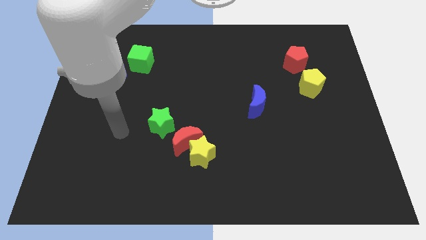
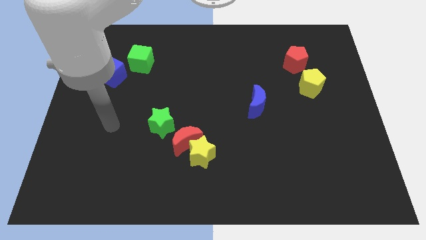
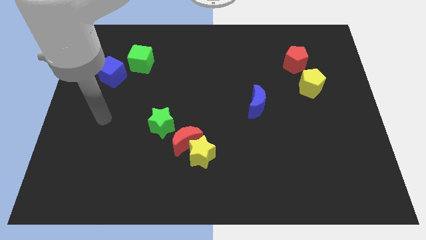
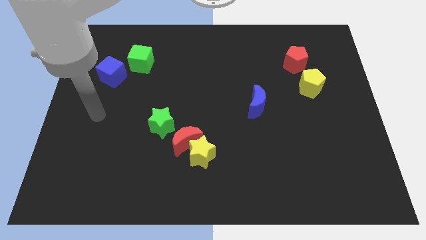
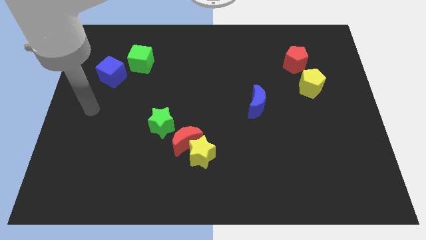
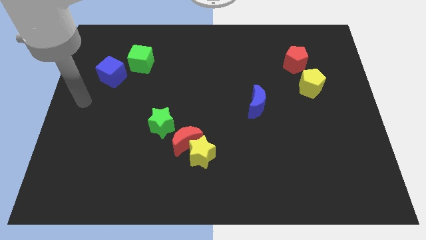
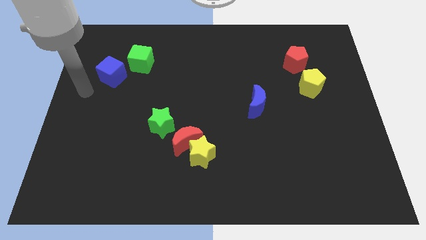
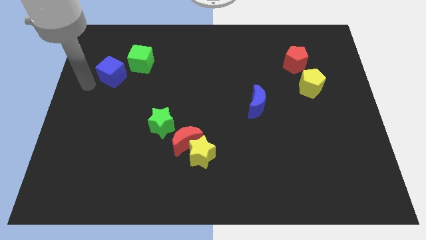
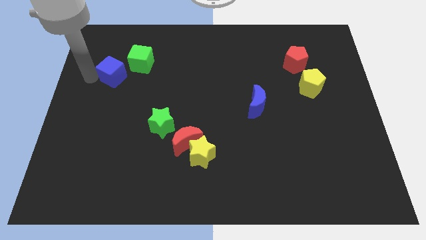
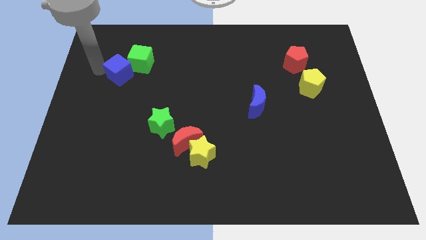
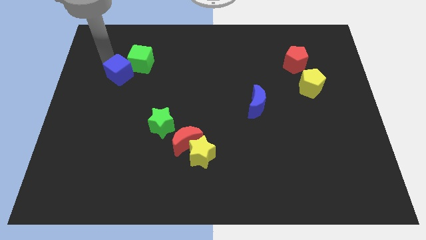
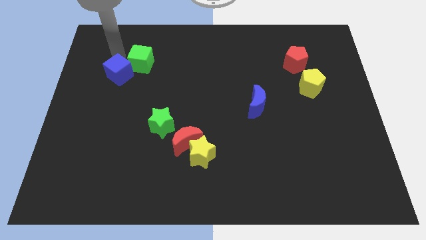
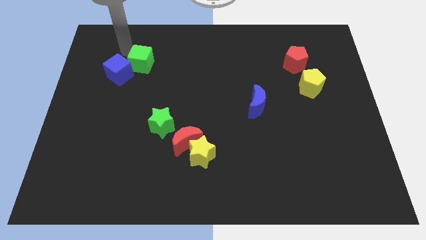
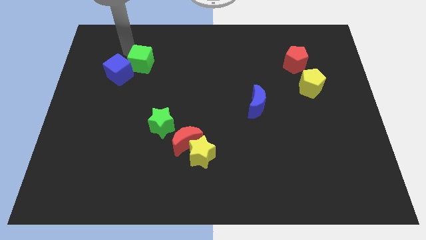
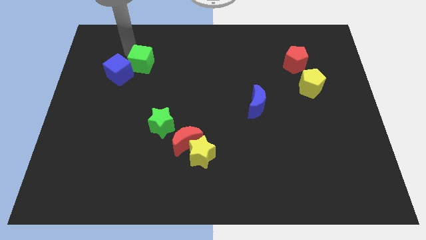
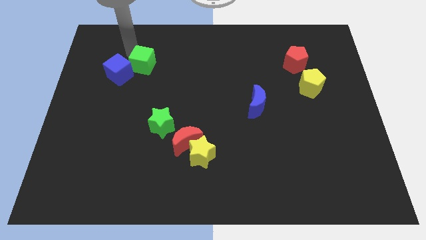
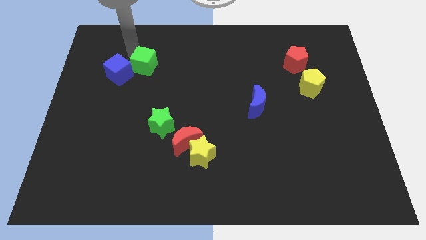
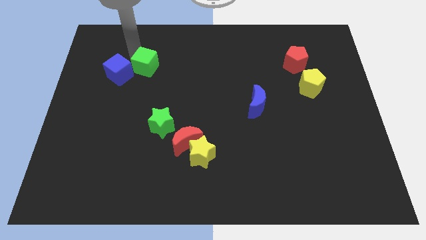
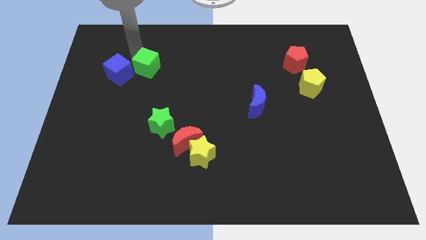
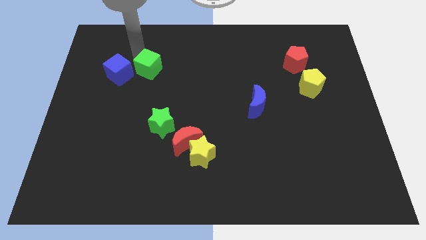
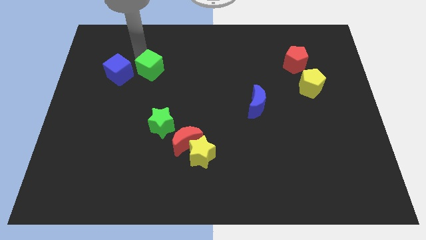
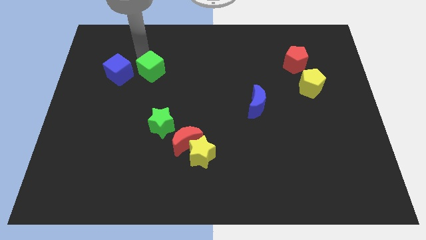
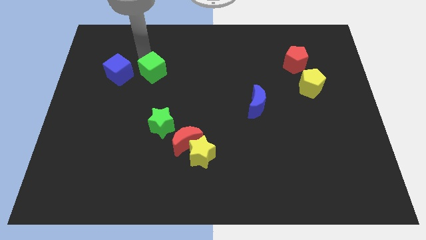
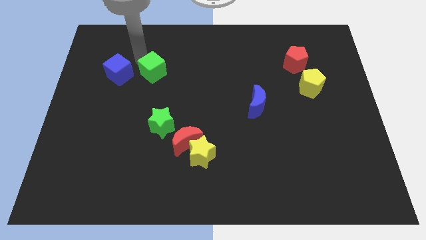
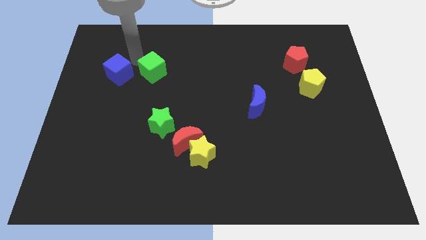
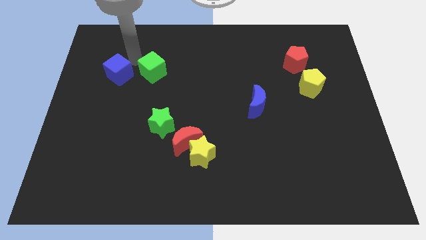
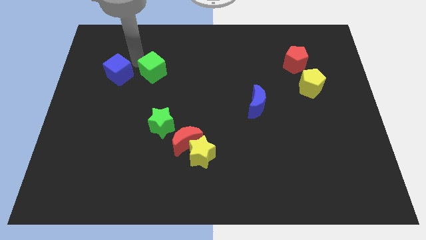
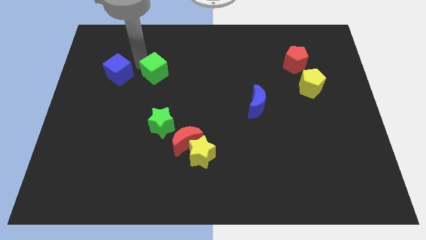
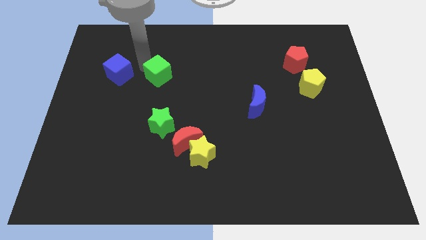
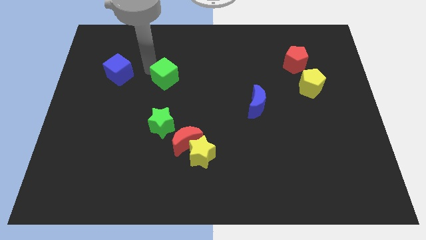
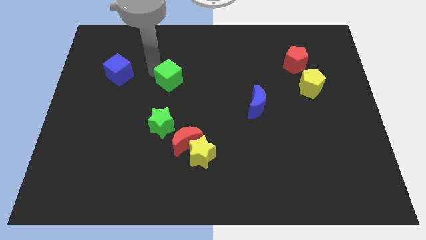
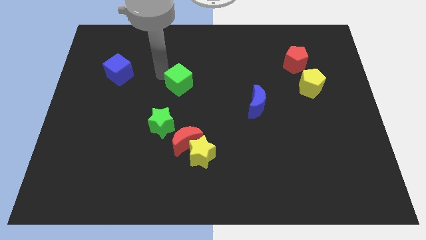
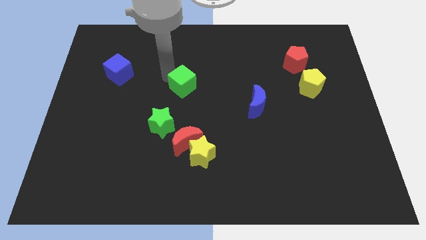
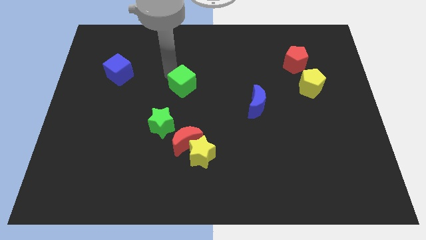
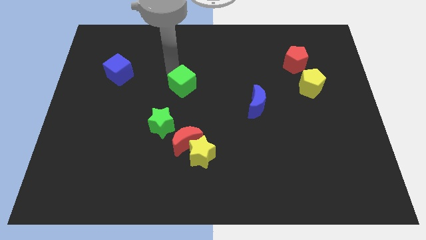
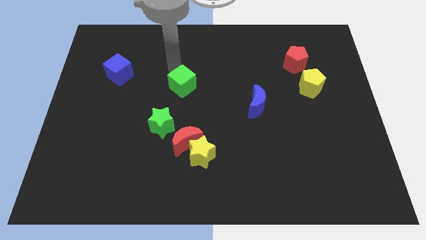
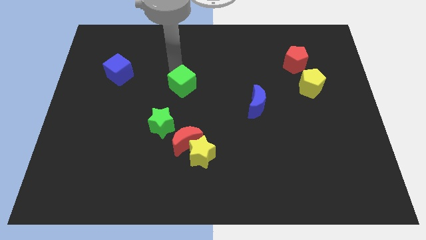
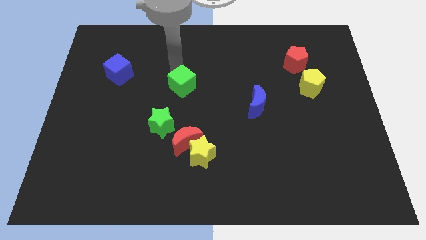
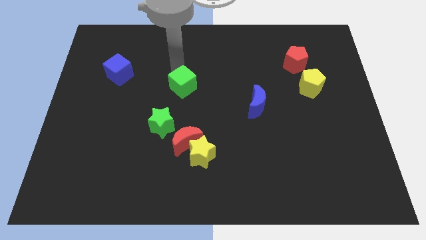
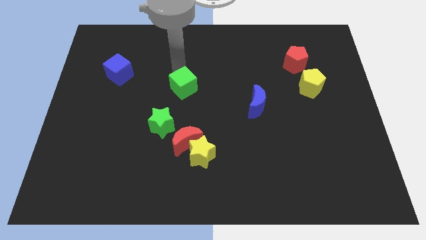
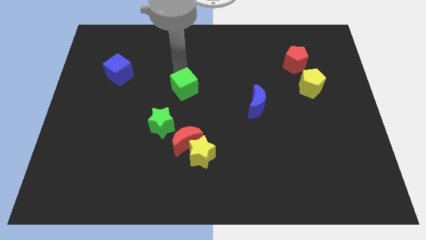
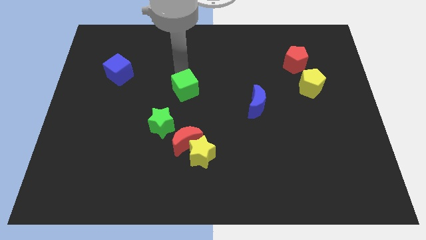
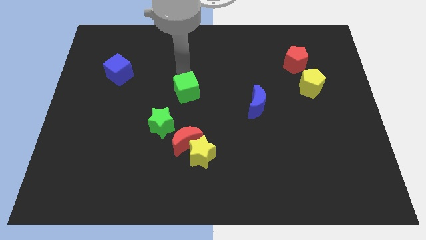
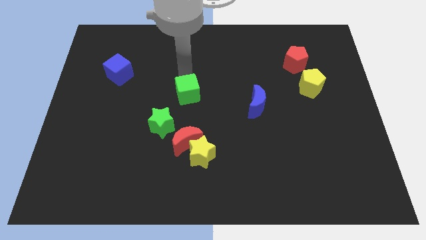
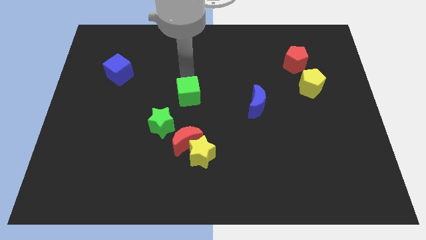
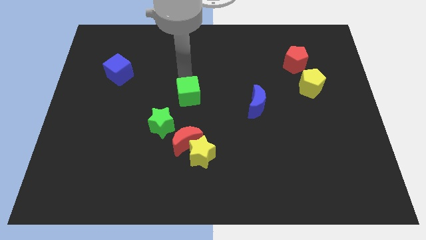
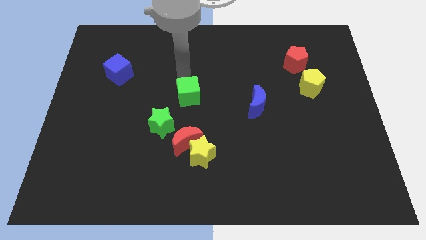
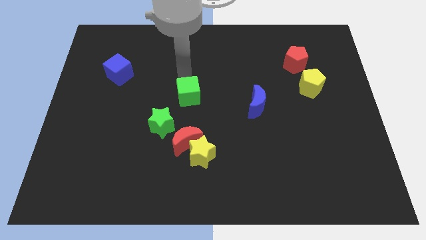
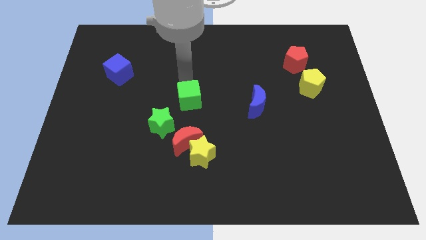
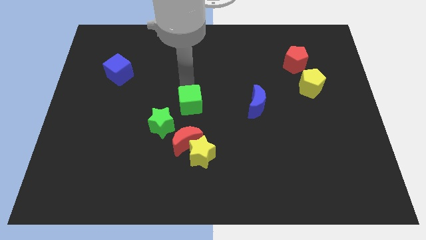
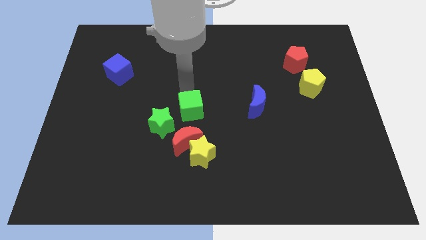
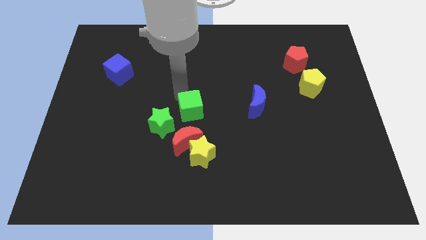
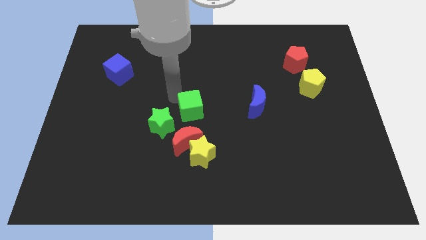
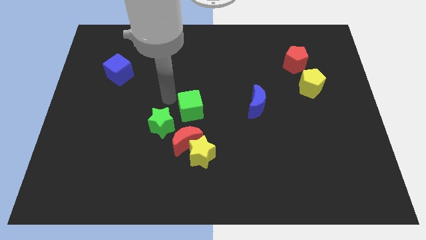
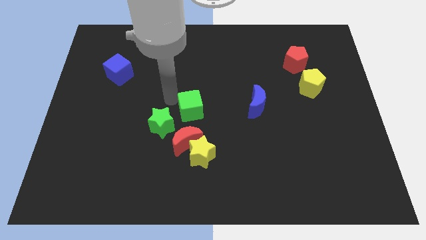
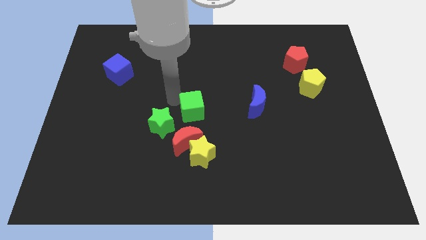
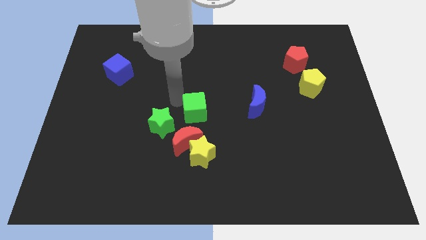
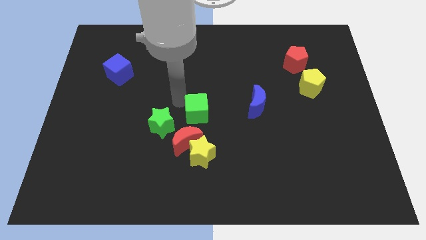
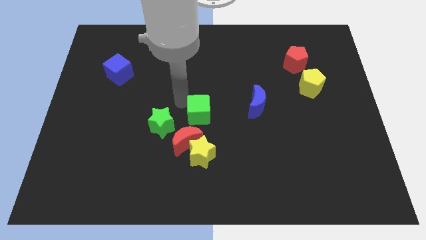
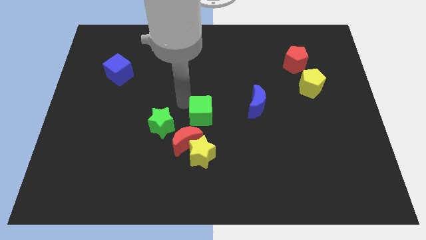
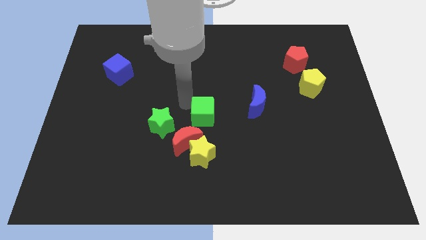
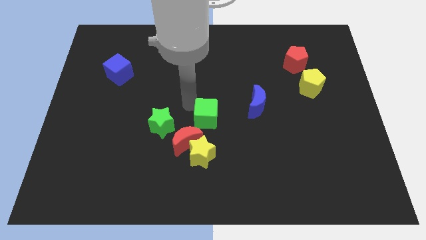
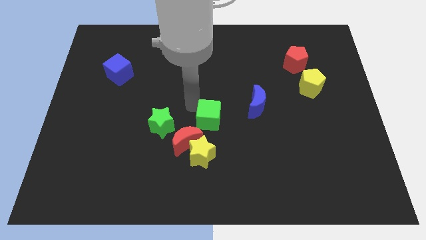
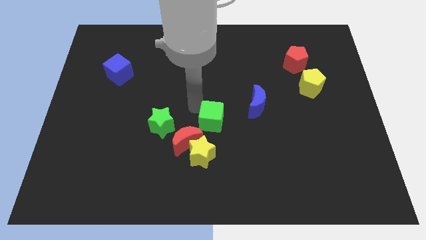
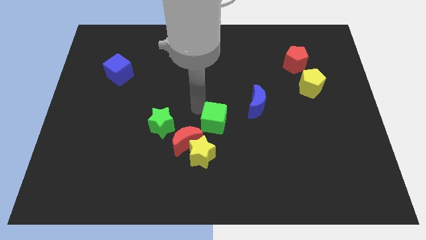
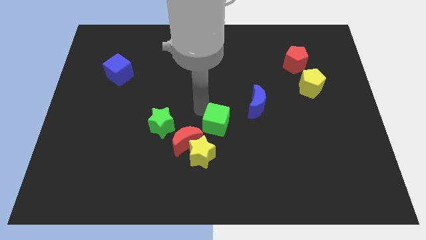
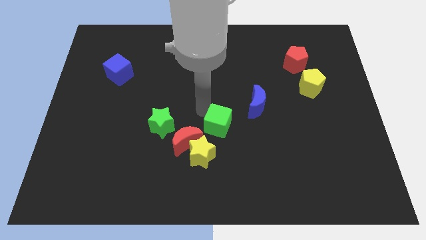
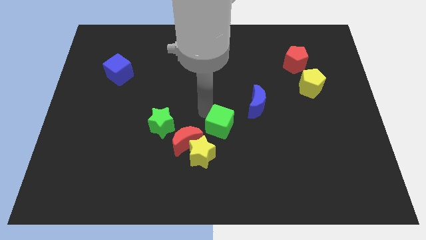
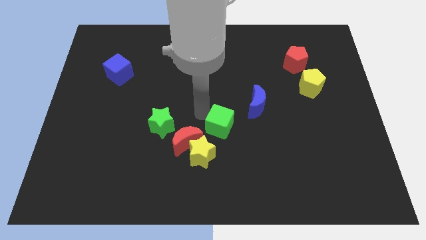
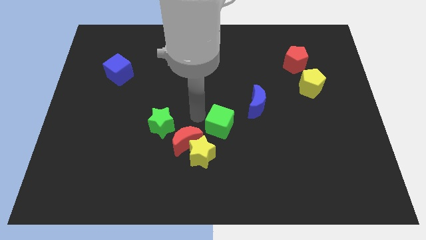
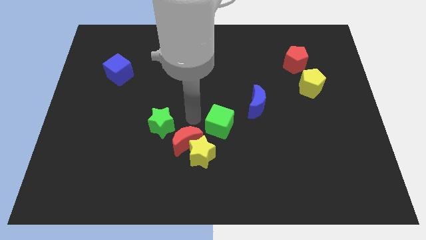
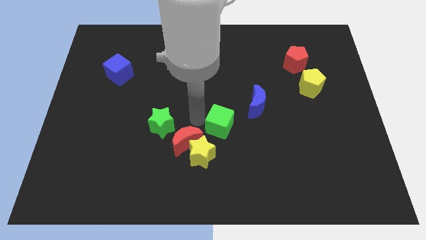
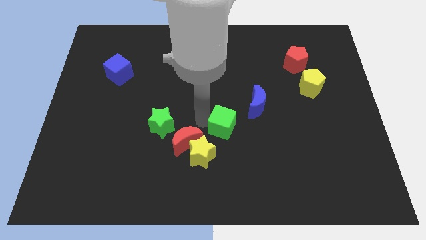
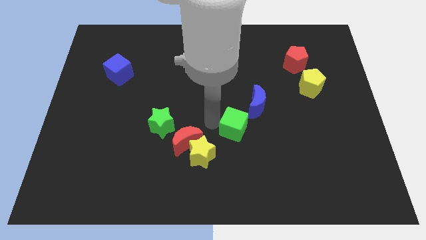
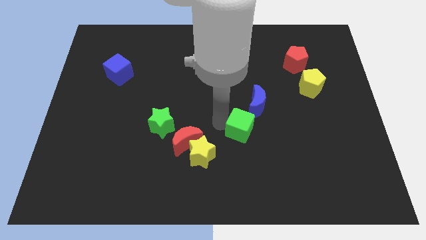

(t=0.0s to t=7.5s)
slide the green cube below the blue moon

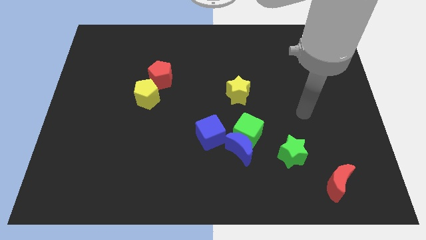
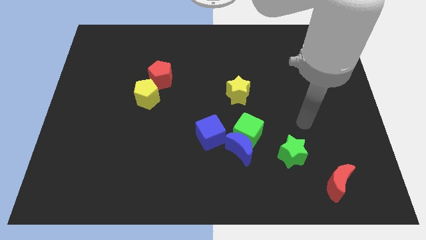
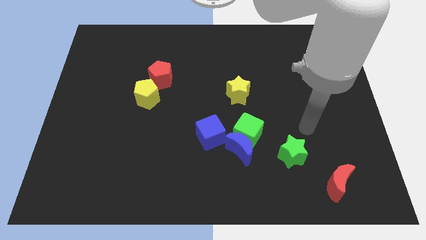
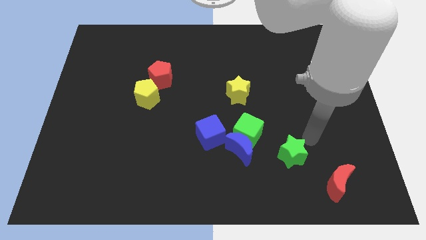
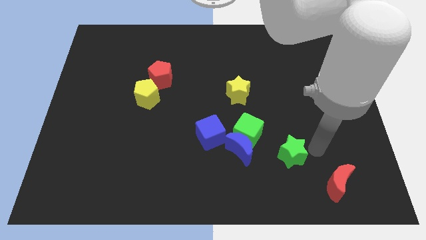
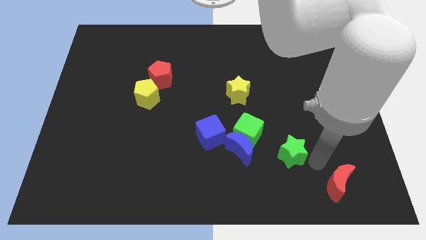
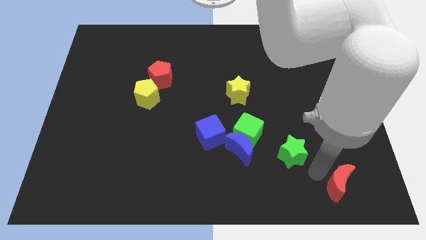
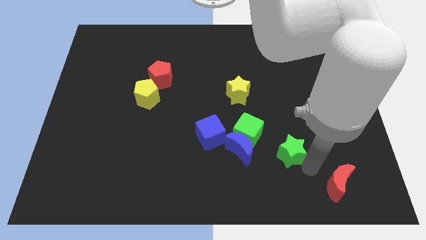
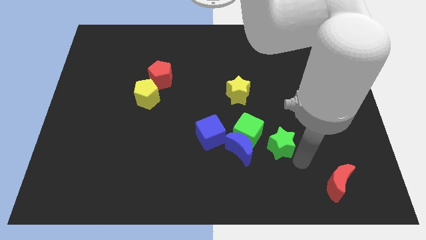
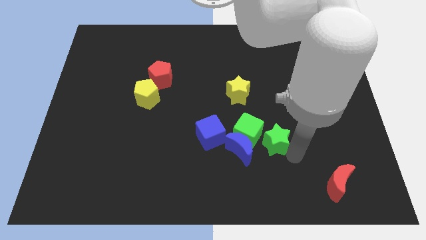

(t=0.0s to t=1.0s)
put the green star to the top right side of the blue moon
